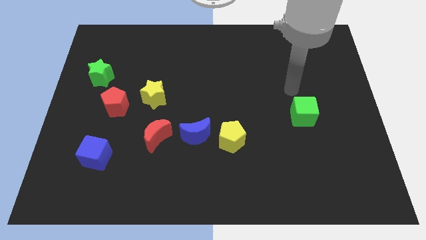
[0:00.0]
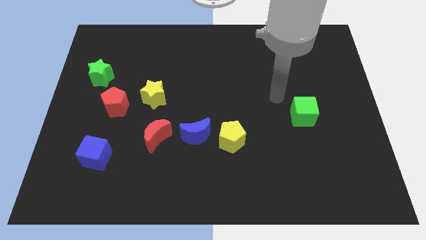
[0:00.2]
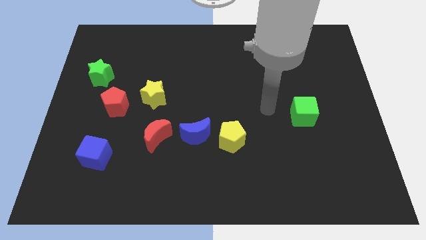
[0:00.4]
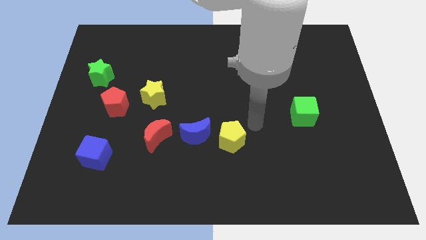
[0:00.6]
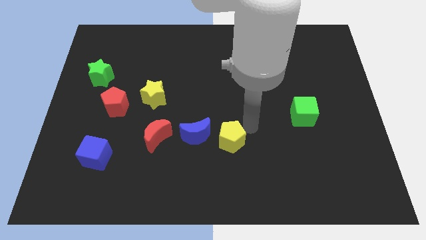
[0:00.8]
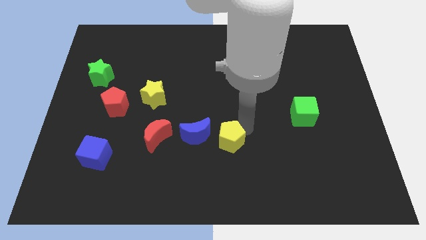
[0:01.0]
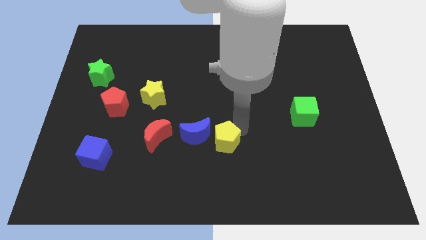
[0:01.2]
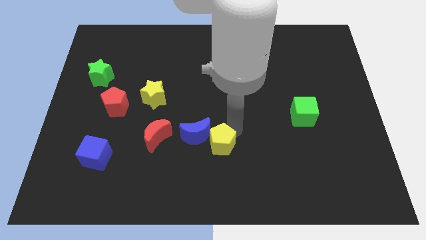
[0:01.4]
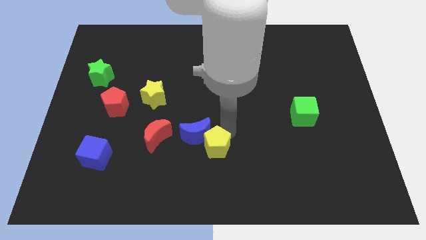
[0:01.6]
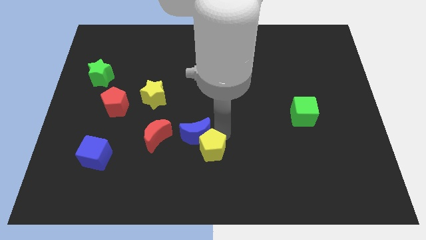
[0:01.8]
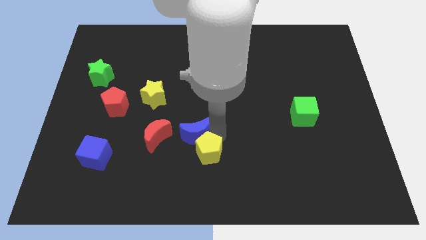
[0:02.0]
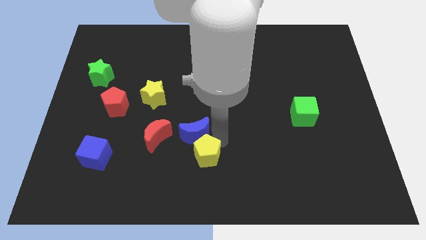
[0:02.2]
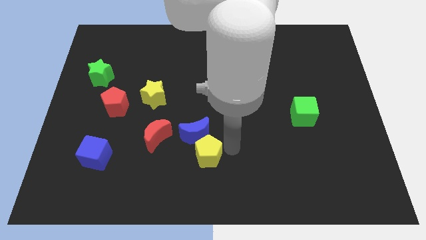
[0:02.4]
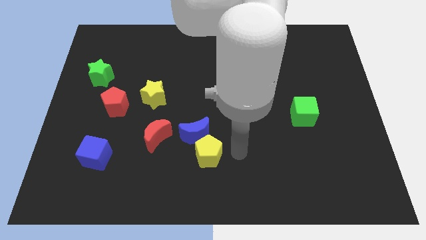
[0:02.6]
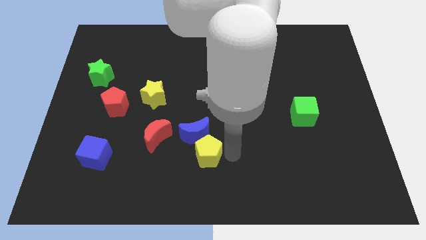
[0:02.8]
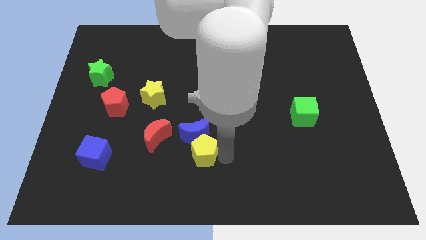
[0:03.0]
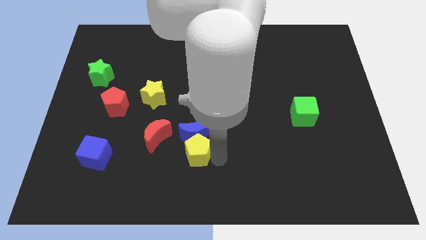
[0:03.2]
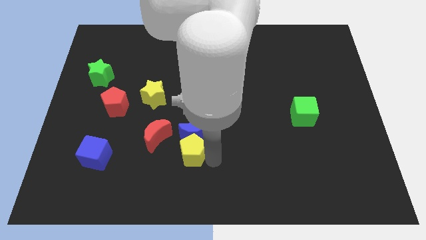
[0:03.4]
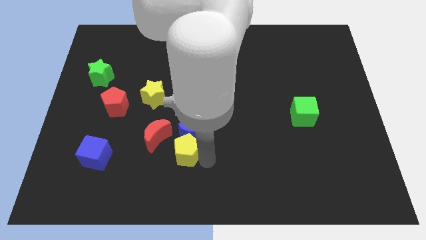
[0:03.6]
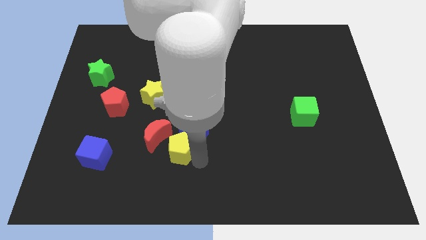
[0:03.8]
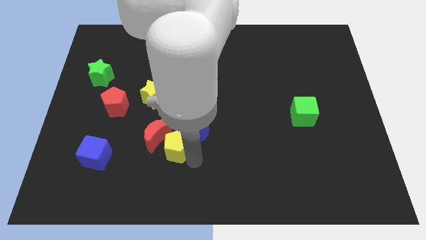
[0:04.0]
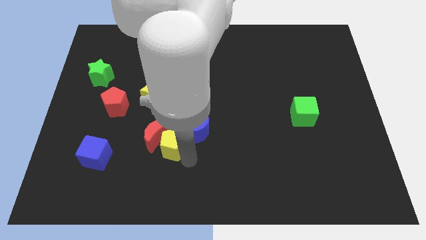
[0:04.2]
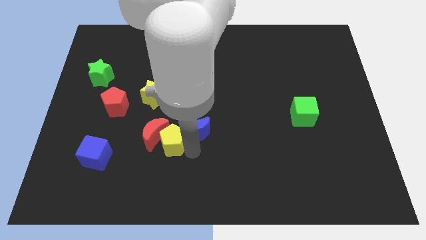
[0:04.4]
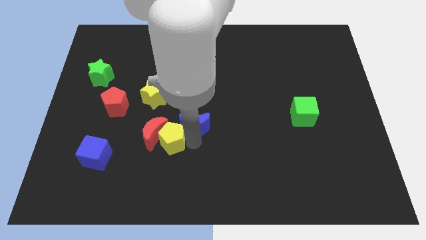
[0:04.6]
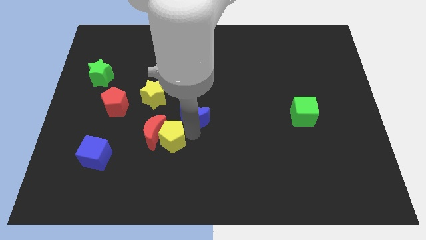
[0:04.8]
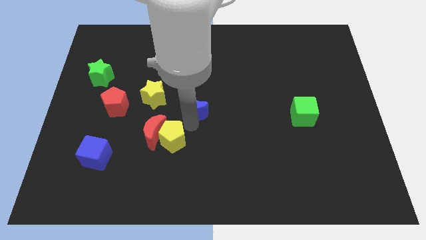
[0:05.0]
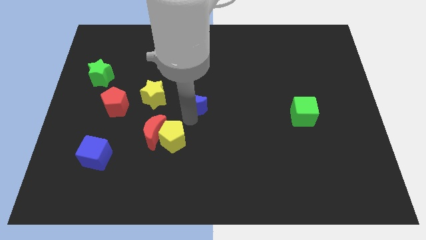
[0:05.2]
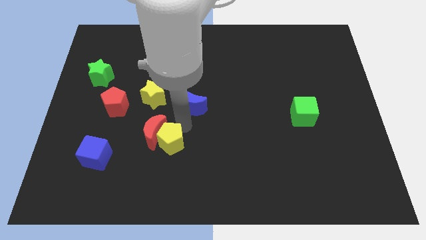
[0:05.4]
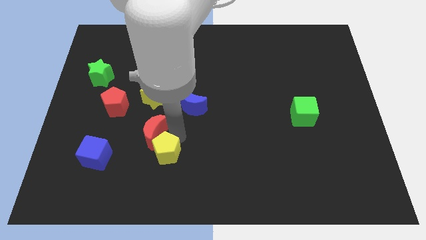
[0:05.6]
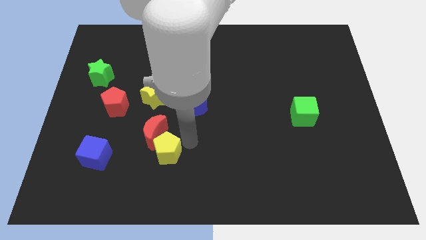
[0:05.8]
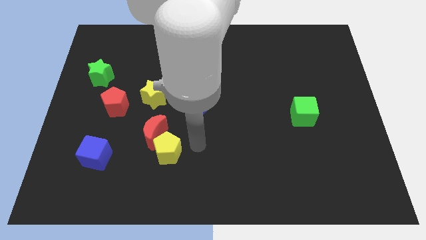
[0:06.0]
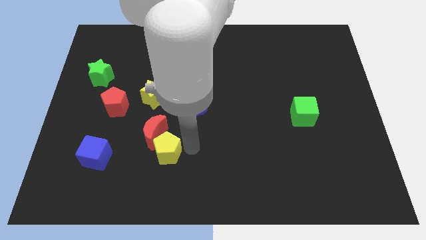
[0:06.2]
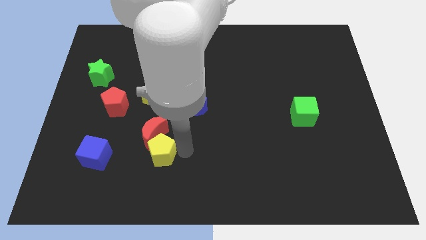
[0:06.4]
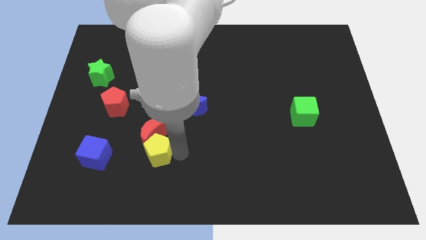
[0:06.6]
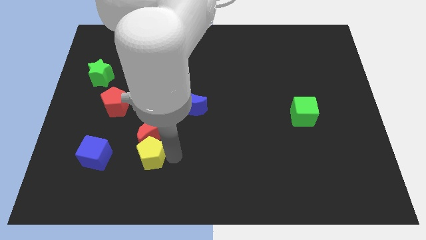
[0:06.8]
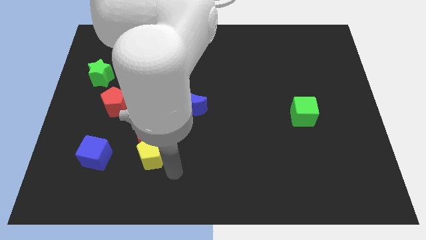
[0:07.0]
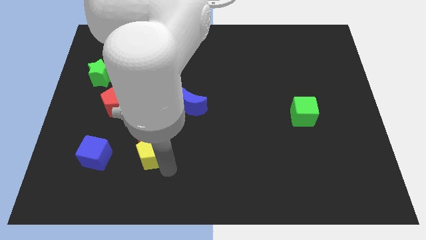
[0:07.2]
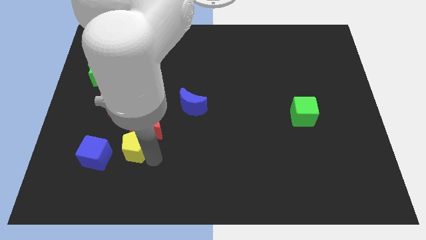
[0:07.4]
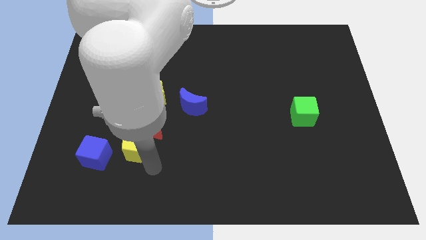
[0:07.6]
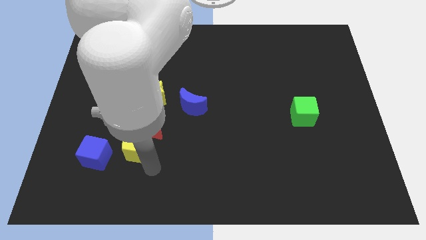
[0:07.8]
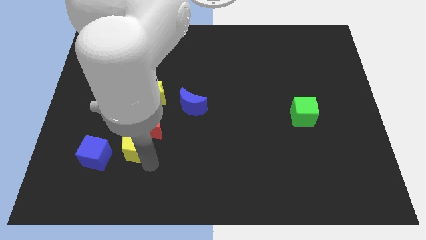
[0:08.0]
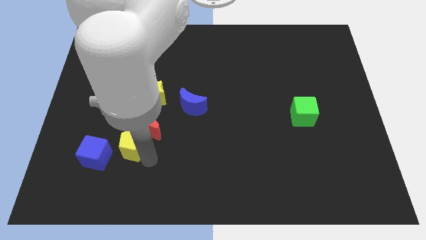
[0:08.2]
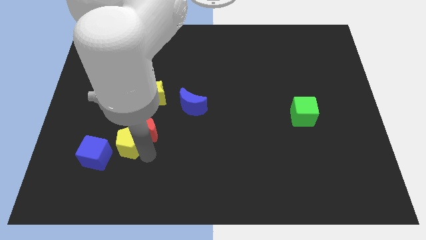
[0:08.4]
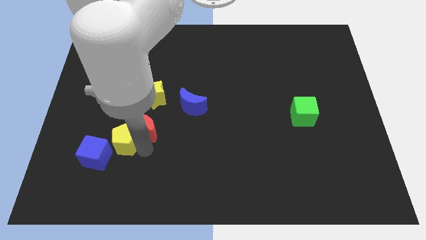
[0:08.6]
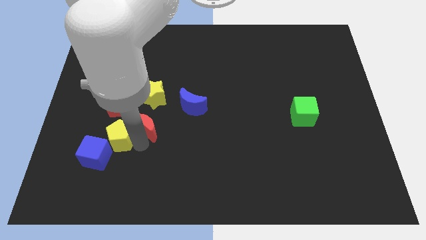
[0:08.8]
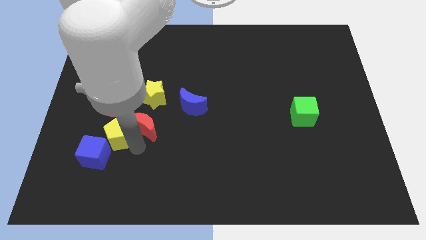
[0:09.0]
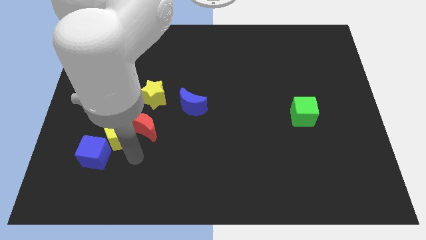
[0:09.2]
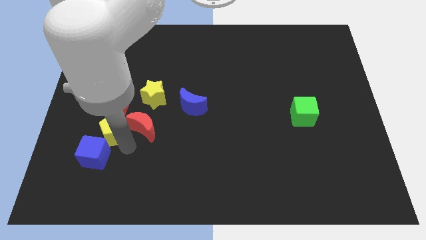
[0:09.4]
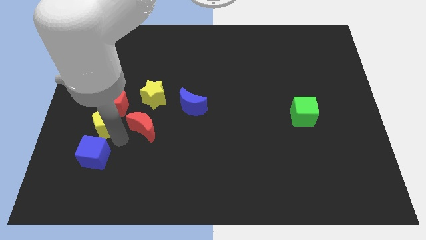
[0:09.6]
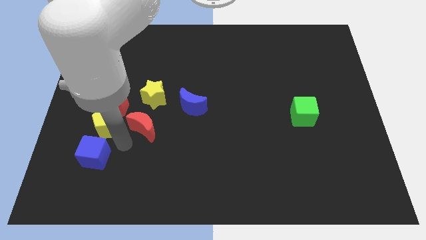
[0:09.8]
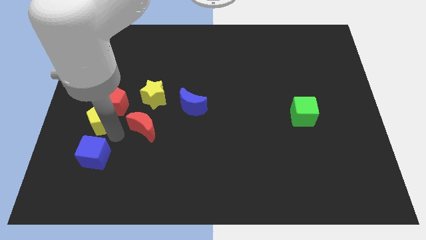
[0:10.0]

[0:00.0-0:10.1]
slide the yellow pentagon below the green star

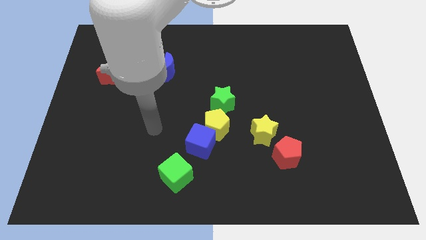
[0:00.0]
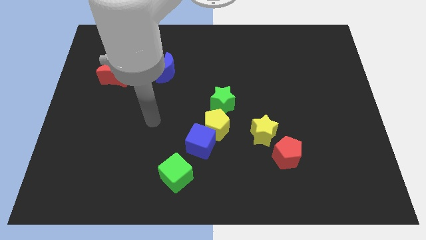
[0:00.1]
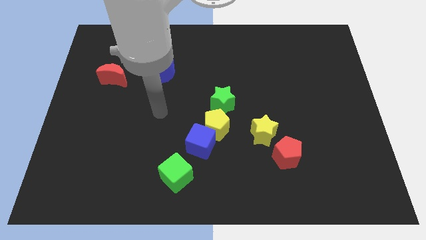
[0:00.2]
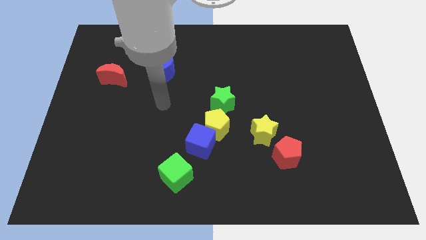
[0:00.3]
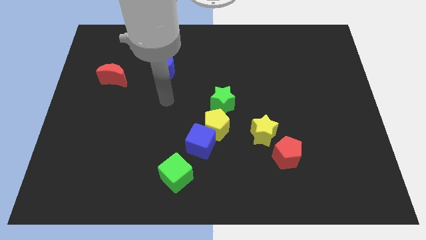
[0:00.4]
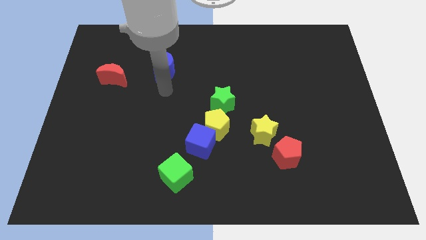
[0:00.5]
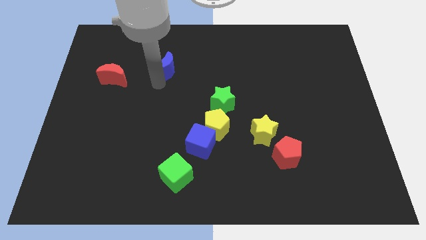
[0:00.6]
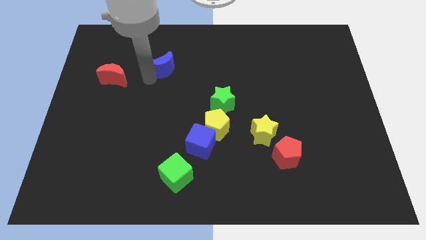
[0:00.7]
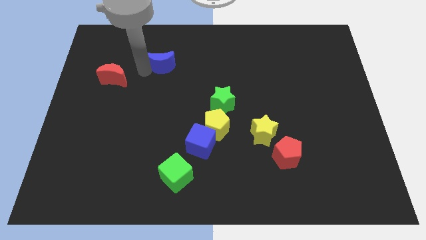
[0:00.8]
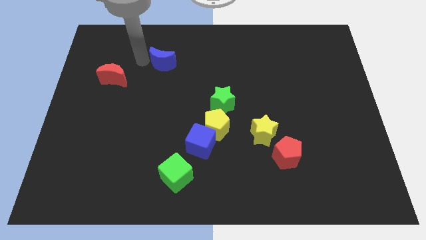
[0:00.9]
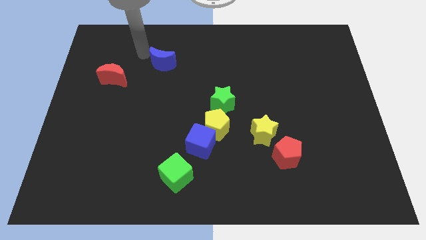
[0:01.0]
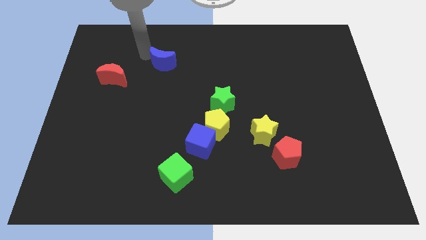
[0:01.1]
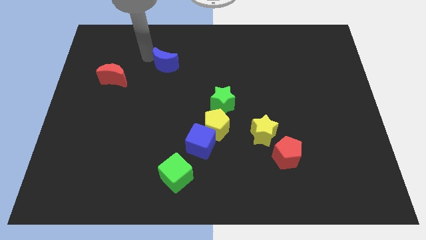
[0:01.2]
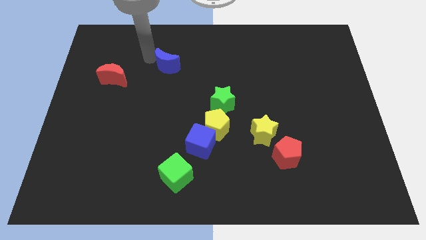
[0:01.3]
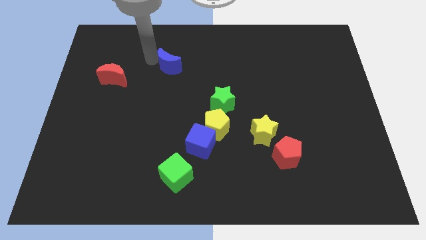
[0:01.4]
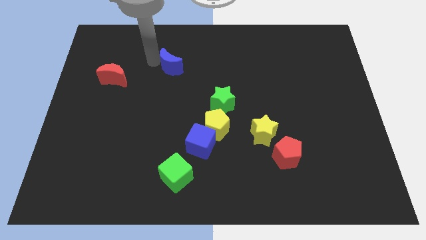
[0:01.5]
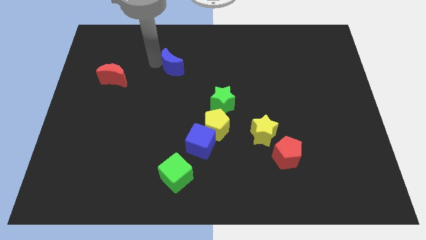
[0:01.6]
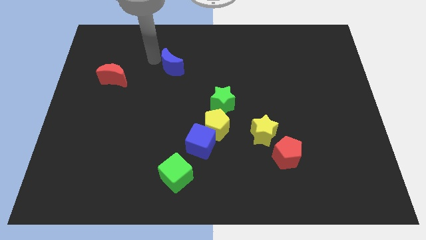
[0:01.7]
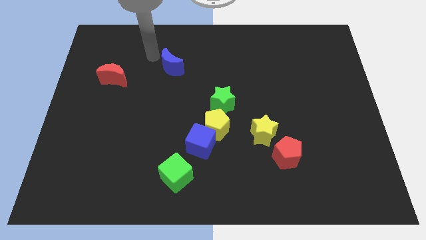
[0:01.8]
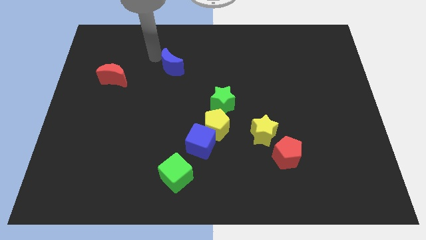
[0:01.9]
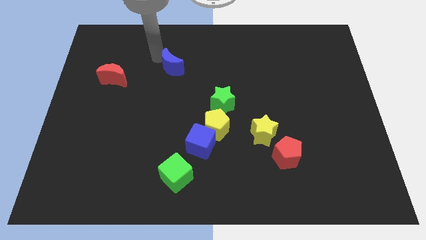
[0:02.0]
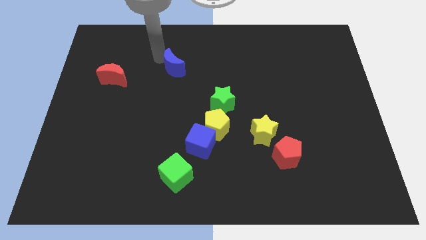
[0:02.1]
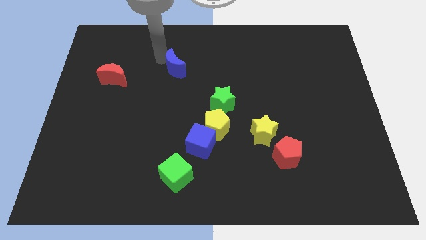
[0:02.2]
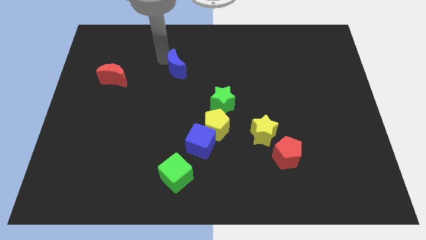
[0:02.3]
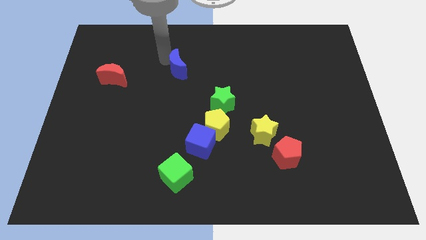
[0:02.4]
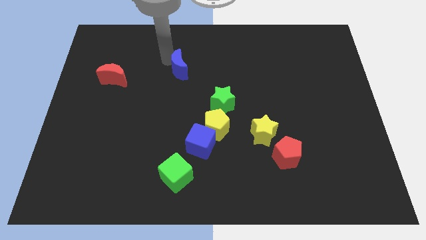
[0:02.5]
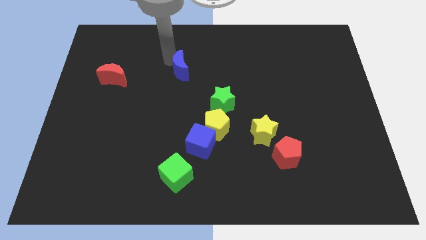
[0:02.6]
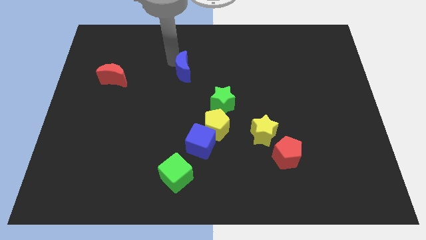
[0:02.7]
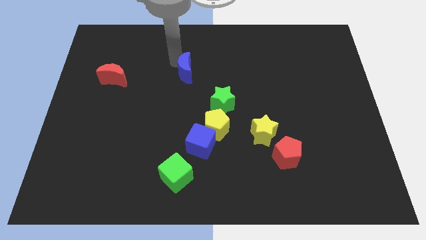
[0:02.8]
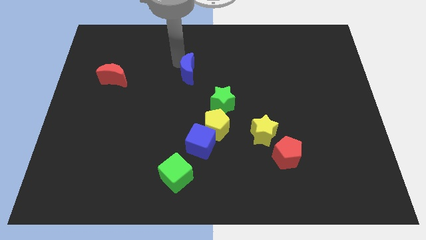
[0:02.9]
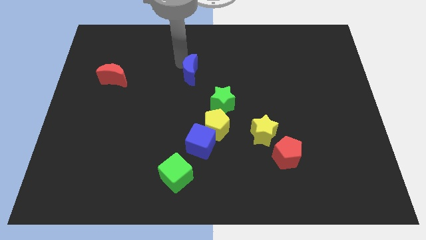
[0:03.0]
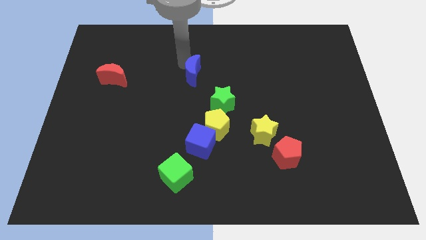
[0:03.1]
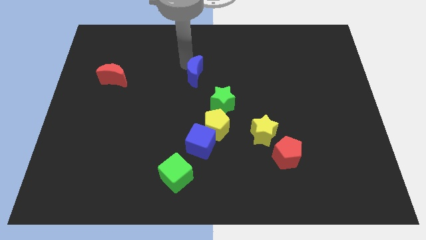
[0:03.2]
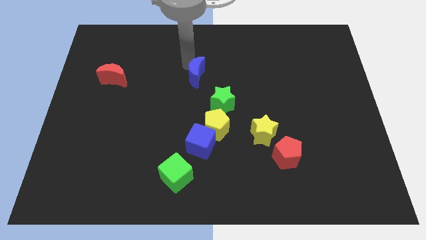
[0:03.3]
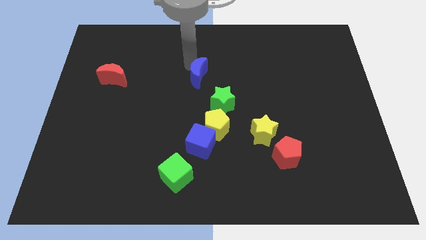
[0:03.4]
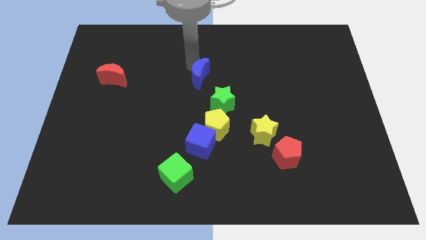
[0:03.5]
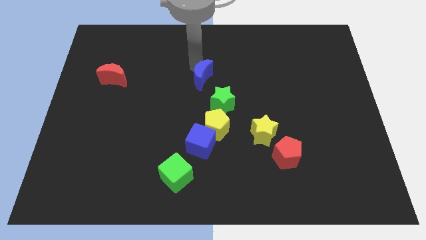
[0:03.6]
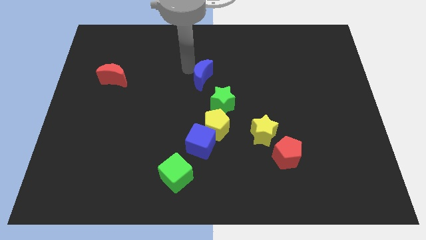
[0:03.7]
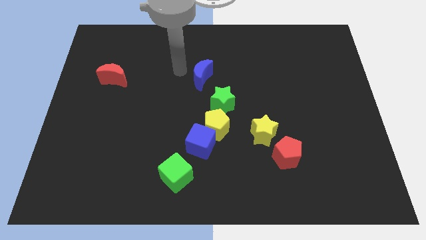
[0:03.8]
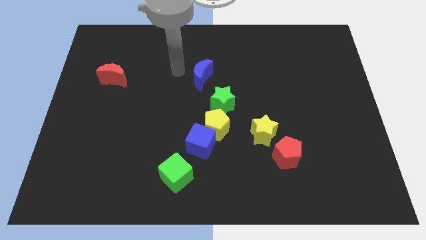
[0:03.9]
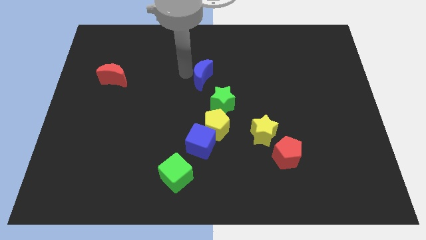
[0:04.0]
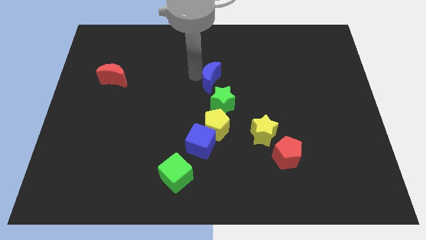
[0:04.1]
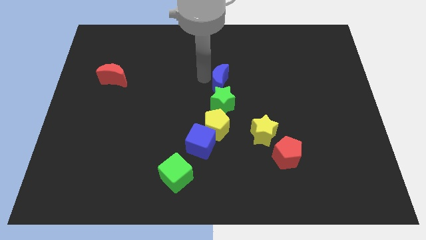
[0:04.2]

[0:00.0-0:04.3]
put the blue moon diagonally up and to the right of the green star
